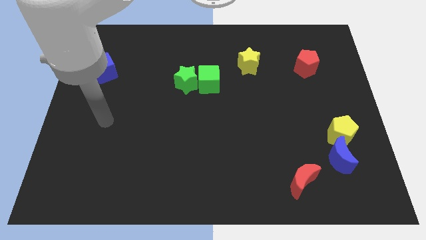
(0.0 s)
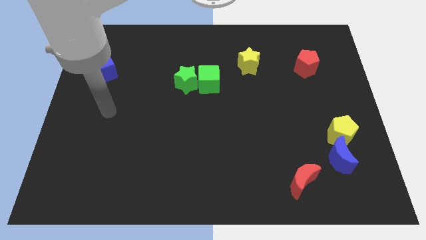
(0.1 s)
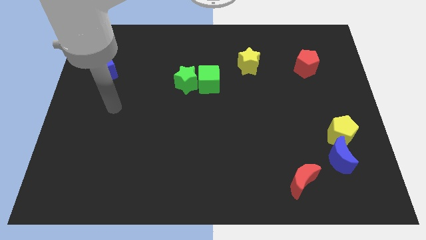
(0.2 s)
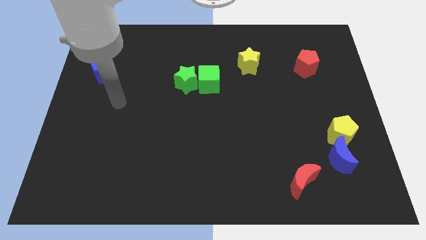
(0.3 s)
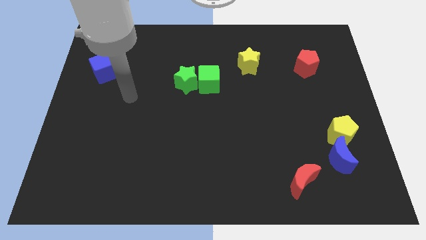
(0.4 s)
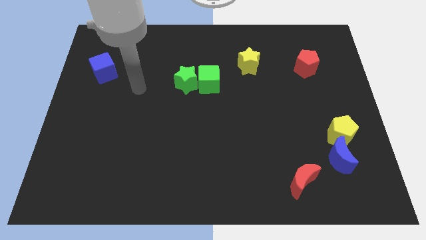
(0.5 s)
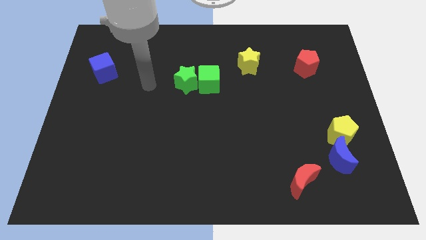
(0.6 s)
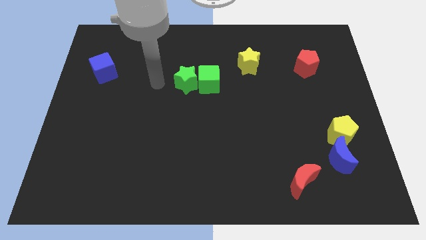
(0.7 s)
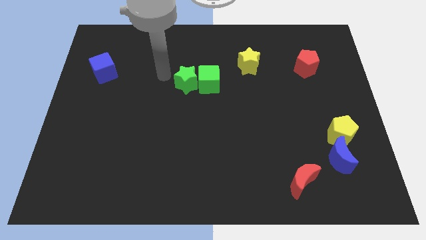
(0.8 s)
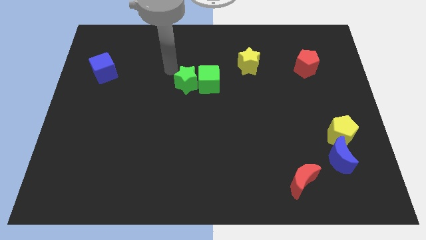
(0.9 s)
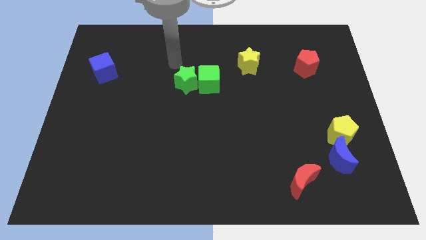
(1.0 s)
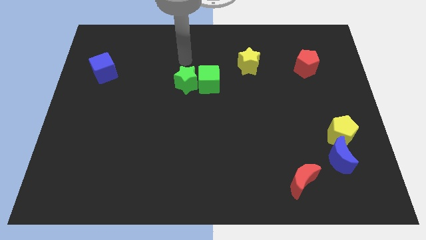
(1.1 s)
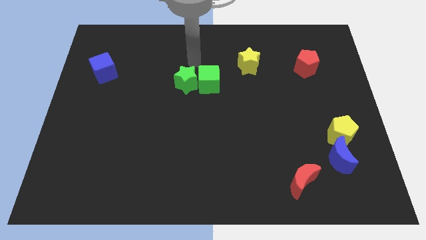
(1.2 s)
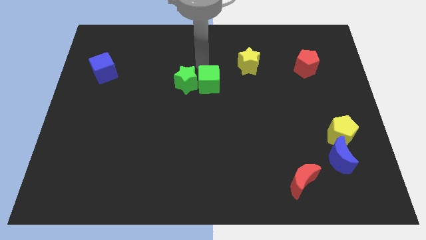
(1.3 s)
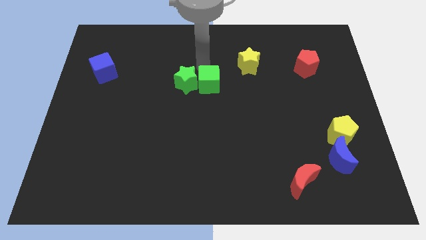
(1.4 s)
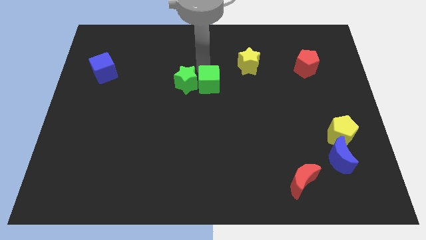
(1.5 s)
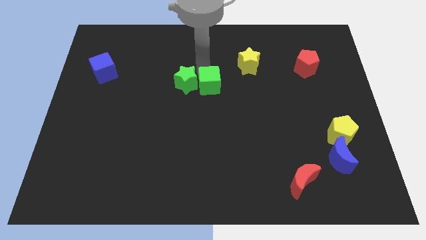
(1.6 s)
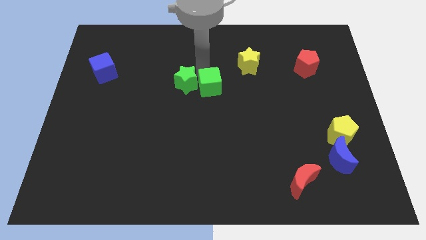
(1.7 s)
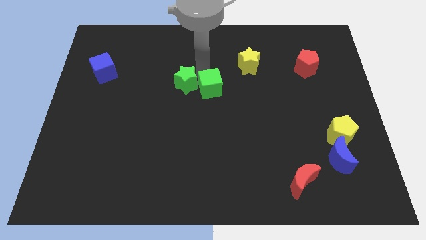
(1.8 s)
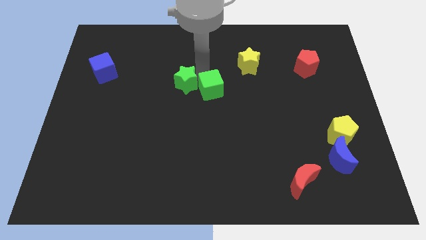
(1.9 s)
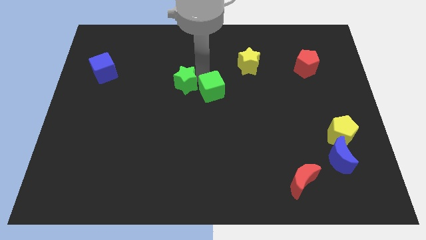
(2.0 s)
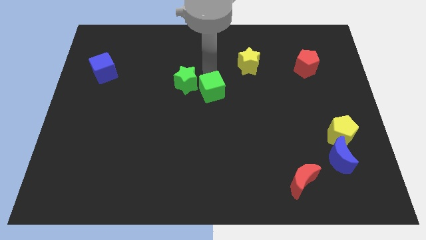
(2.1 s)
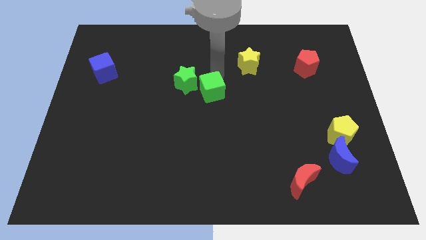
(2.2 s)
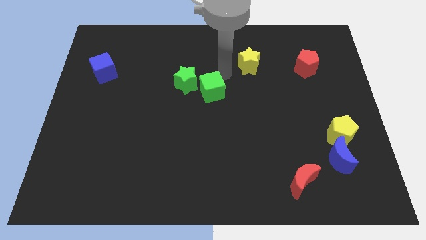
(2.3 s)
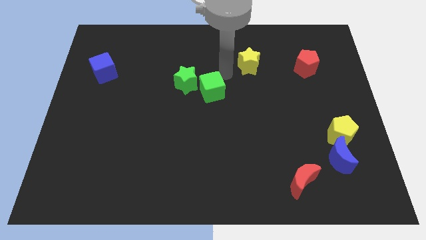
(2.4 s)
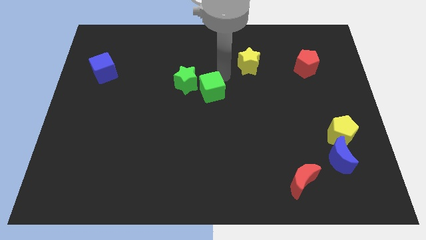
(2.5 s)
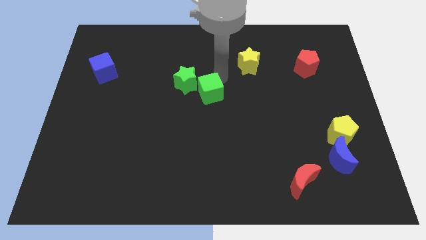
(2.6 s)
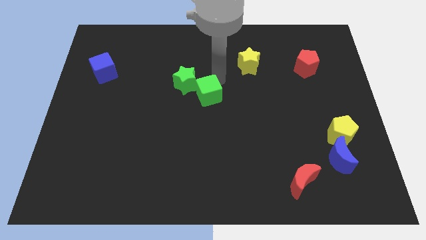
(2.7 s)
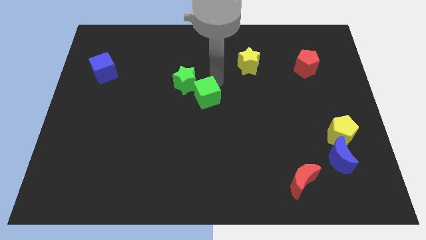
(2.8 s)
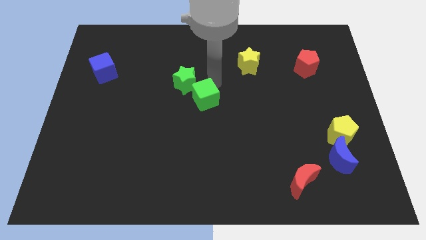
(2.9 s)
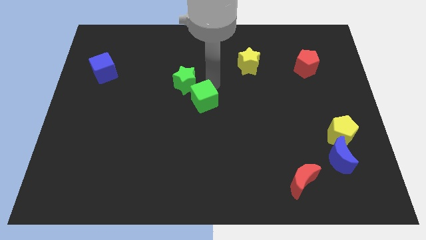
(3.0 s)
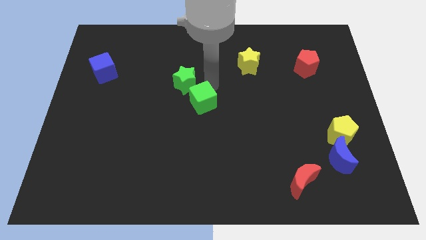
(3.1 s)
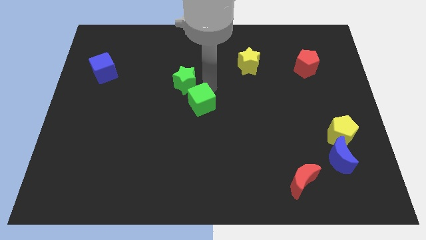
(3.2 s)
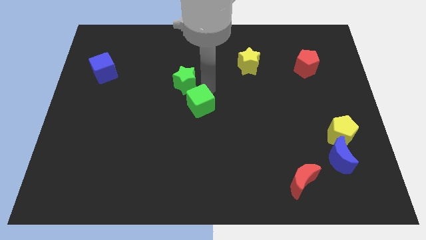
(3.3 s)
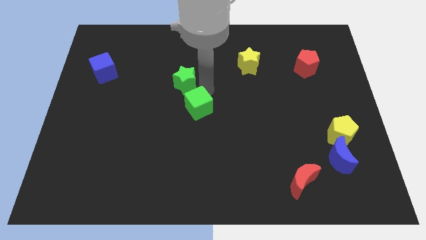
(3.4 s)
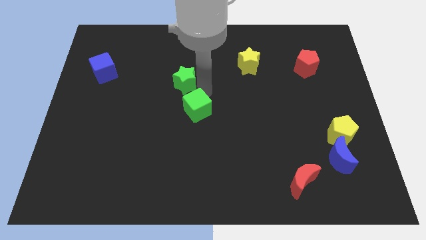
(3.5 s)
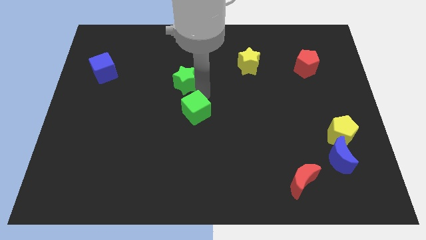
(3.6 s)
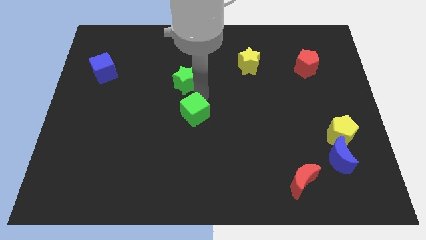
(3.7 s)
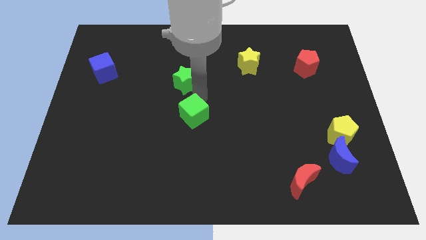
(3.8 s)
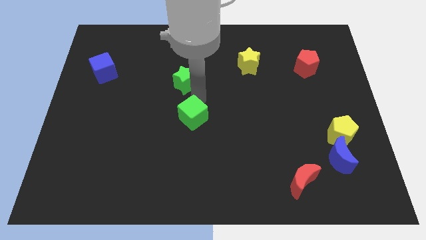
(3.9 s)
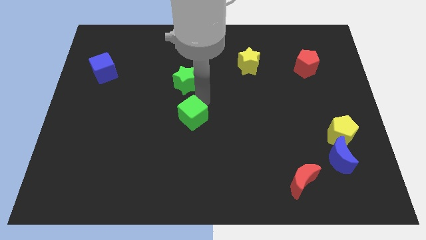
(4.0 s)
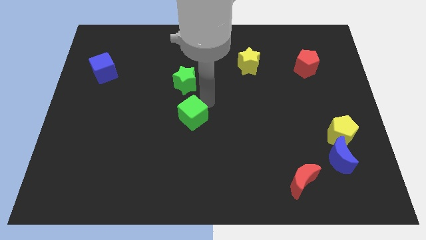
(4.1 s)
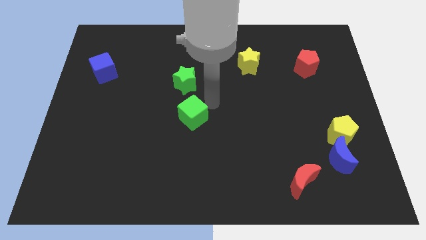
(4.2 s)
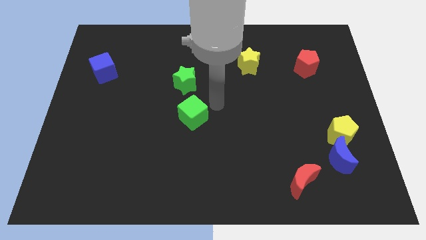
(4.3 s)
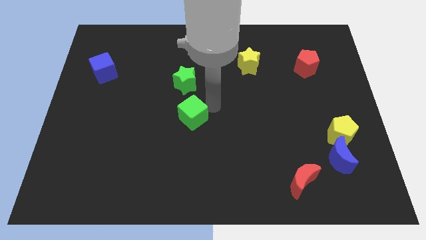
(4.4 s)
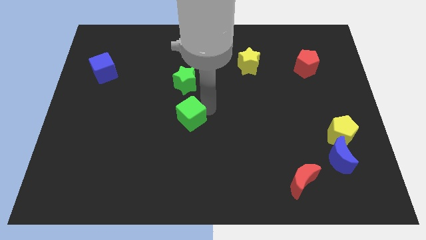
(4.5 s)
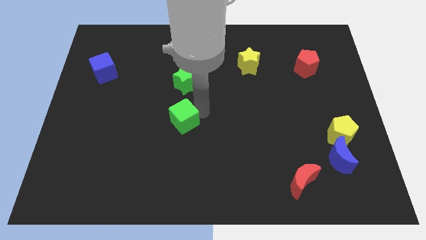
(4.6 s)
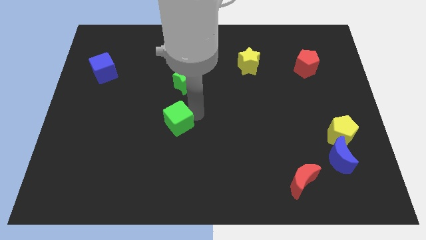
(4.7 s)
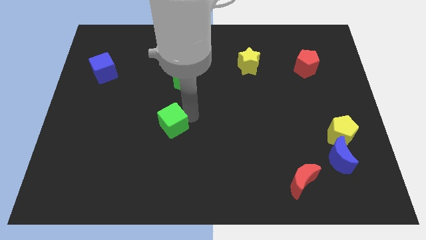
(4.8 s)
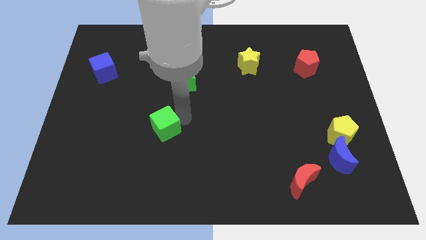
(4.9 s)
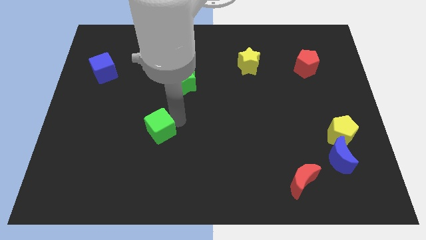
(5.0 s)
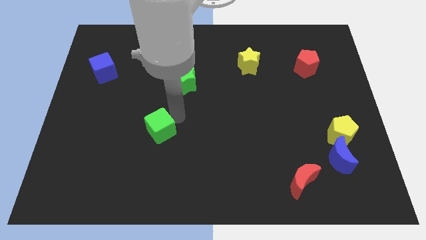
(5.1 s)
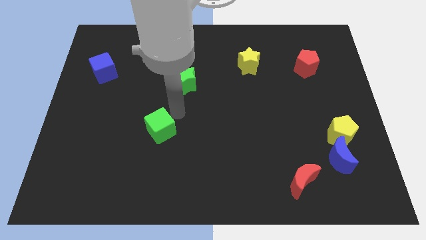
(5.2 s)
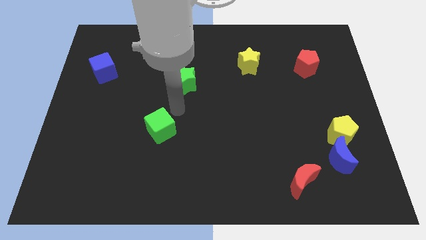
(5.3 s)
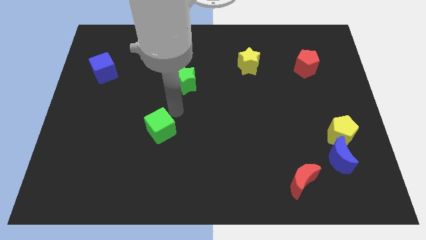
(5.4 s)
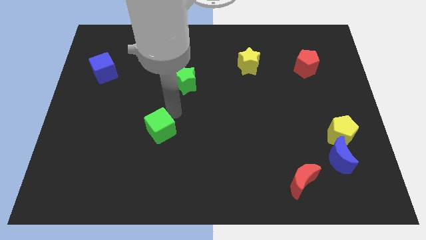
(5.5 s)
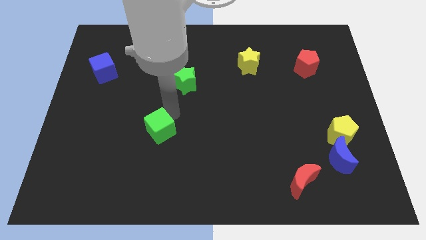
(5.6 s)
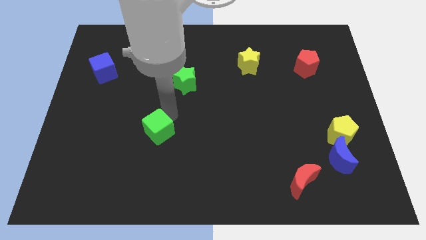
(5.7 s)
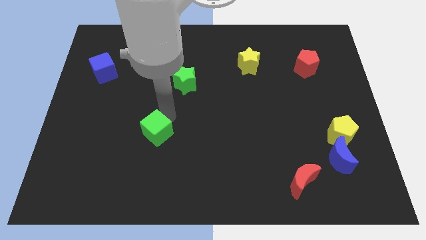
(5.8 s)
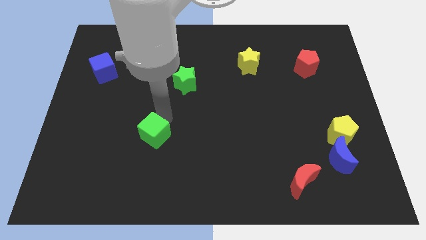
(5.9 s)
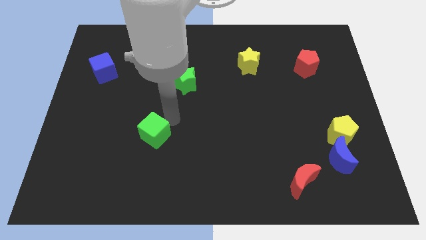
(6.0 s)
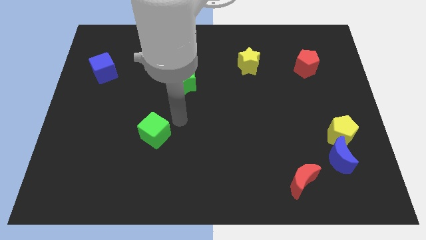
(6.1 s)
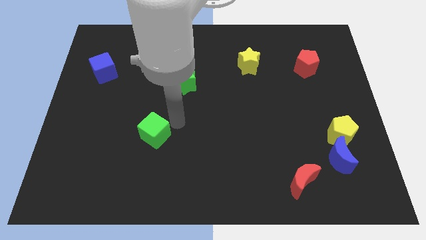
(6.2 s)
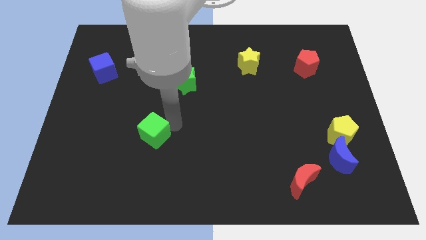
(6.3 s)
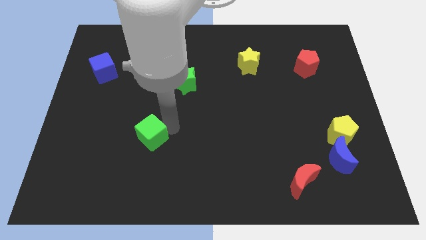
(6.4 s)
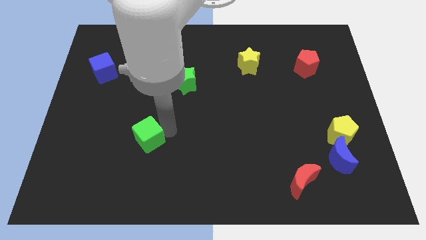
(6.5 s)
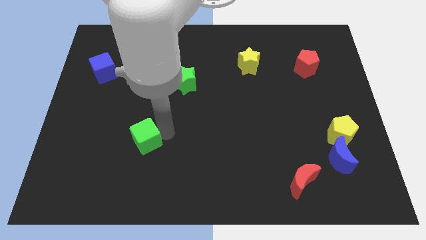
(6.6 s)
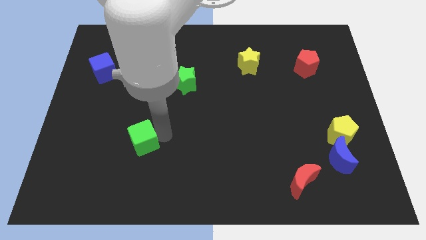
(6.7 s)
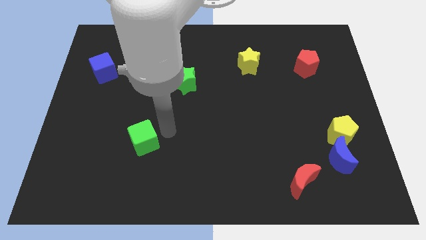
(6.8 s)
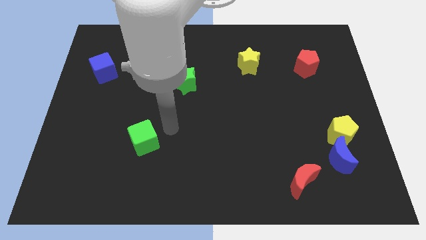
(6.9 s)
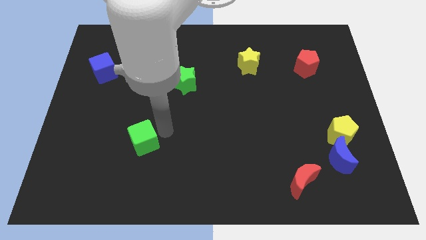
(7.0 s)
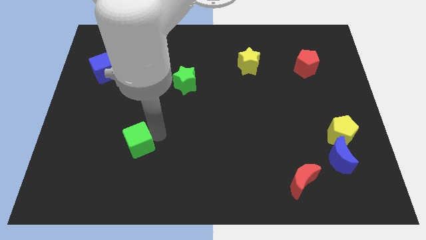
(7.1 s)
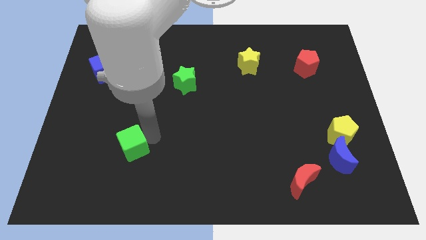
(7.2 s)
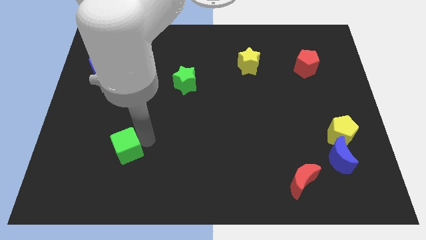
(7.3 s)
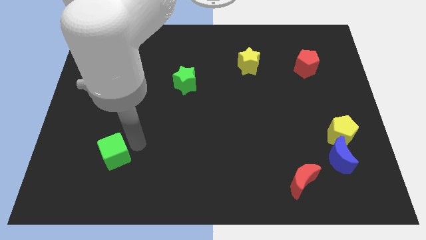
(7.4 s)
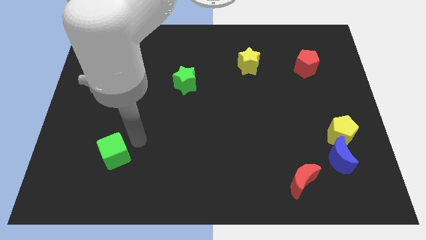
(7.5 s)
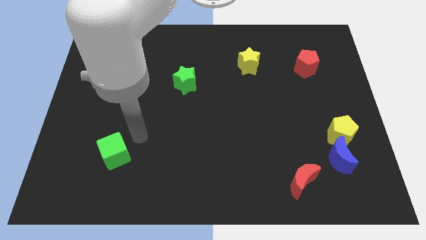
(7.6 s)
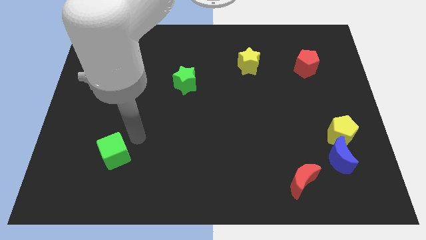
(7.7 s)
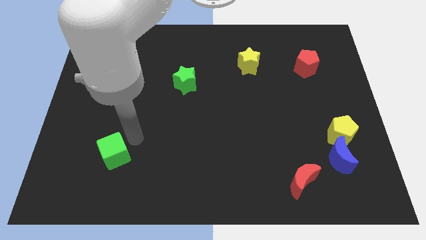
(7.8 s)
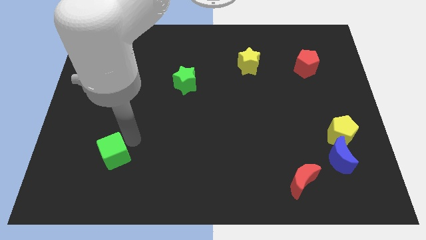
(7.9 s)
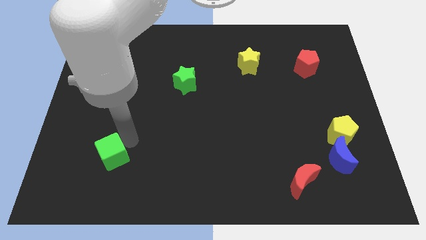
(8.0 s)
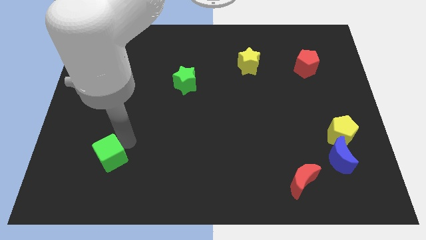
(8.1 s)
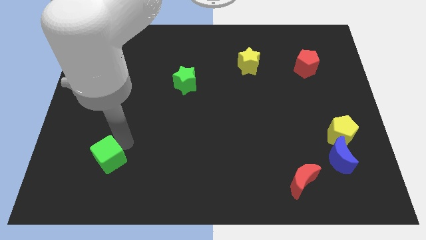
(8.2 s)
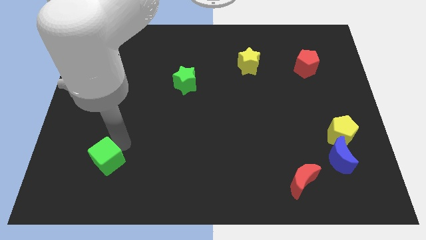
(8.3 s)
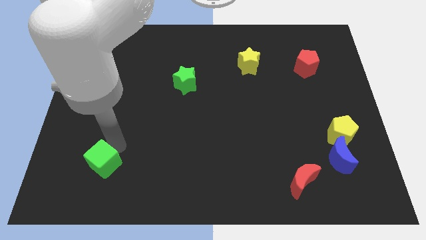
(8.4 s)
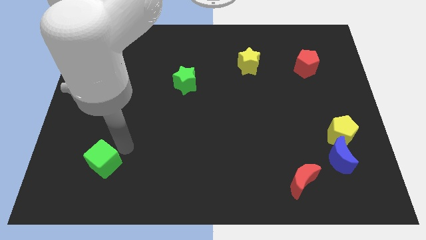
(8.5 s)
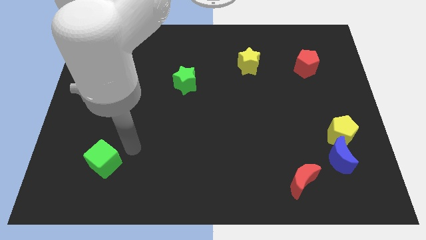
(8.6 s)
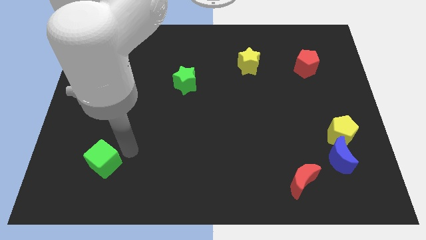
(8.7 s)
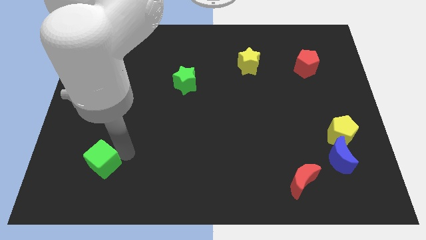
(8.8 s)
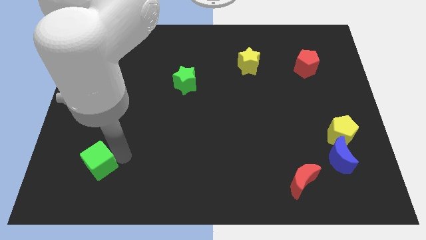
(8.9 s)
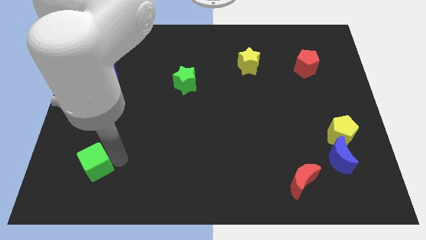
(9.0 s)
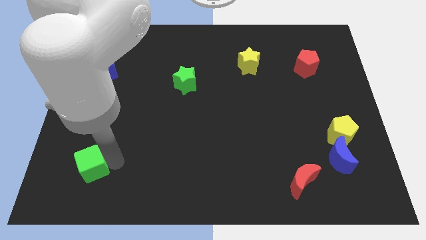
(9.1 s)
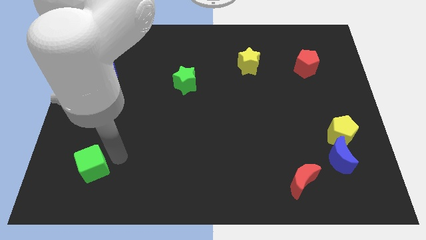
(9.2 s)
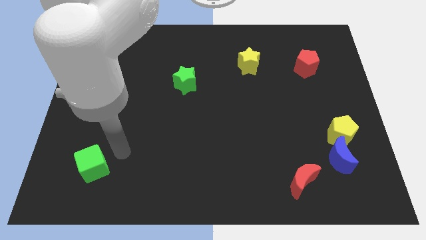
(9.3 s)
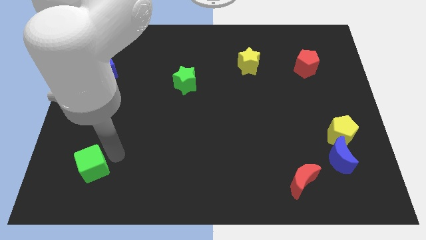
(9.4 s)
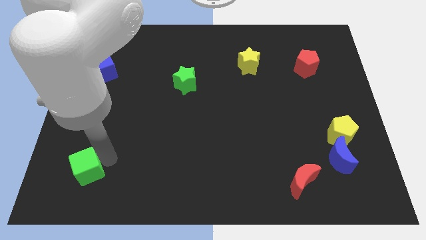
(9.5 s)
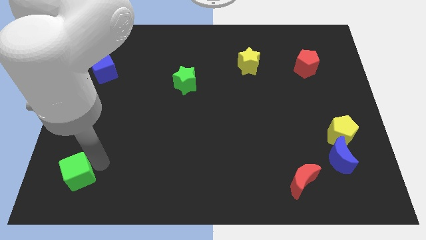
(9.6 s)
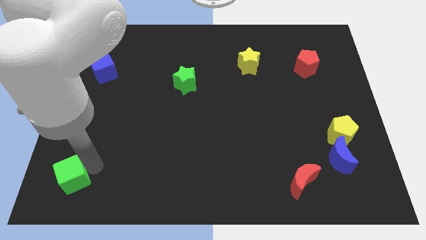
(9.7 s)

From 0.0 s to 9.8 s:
push the green cube to the bottom left
